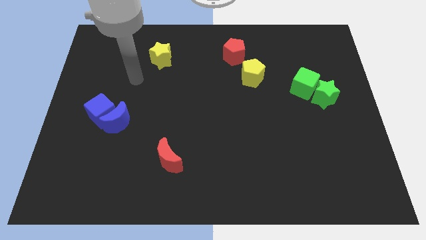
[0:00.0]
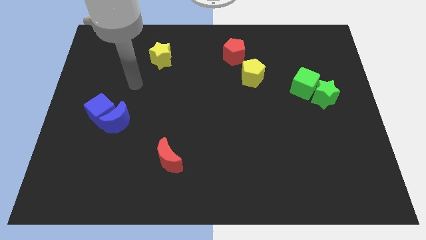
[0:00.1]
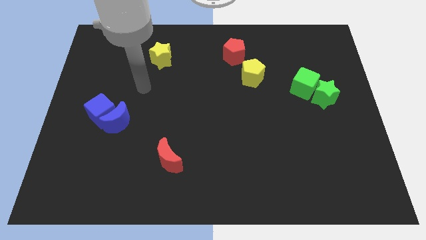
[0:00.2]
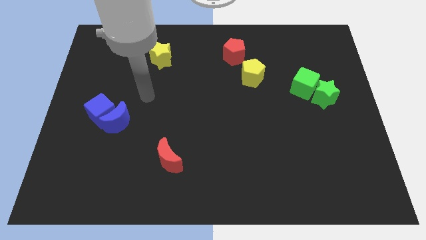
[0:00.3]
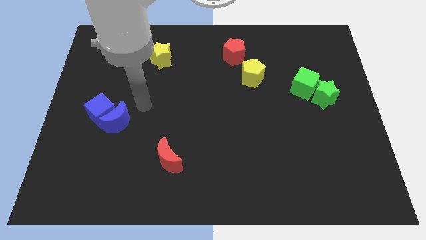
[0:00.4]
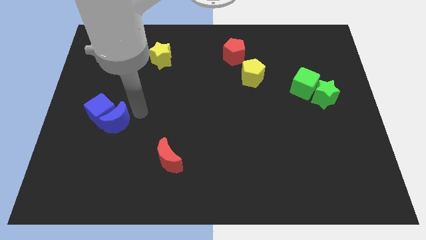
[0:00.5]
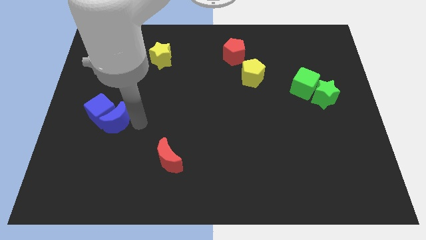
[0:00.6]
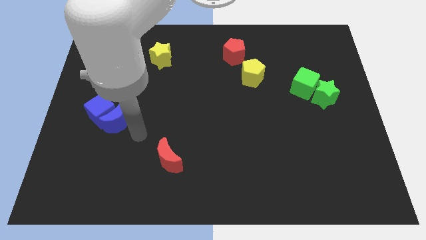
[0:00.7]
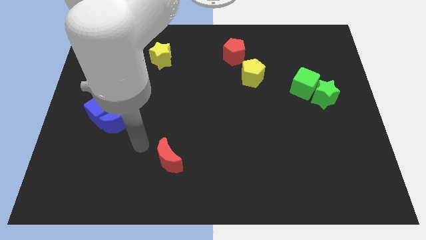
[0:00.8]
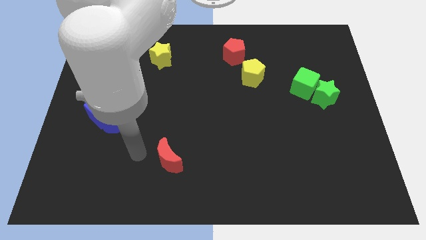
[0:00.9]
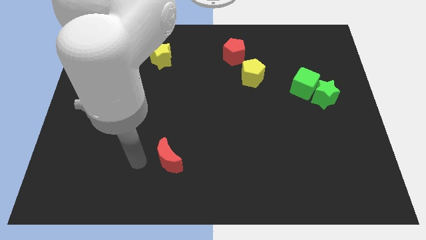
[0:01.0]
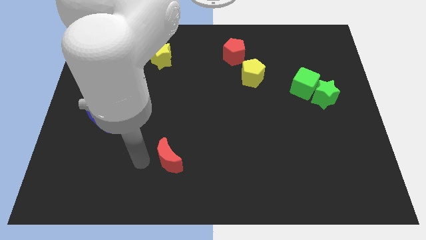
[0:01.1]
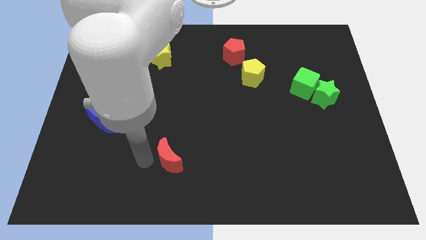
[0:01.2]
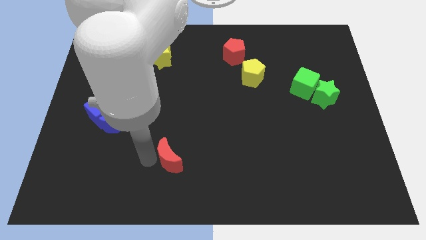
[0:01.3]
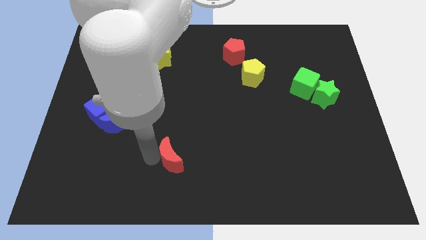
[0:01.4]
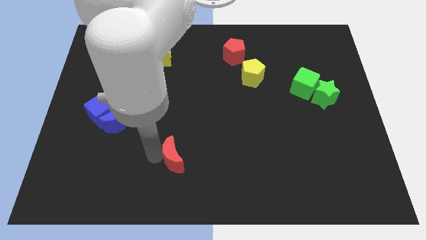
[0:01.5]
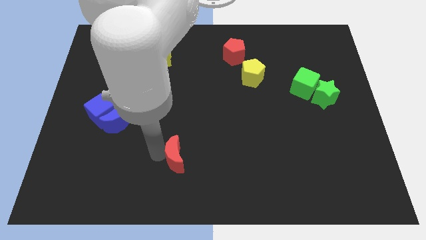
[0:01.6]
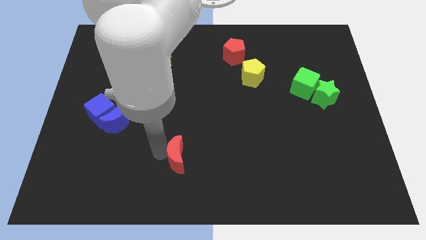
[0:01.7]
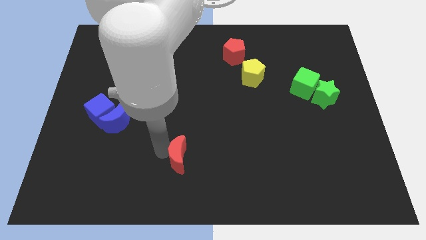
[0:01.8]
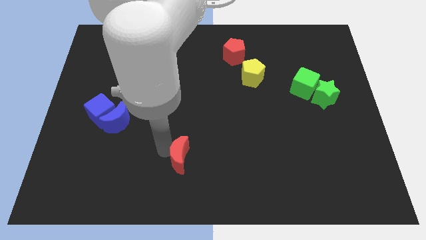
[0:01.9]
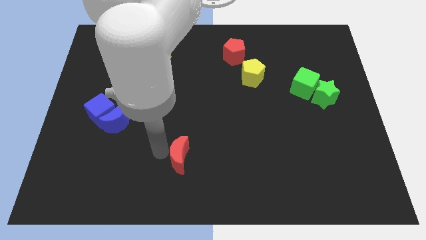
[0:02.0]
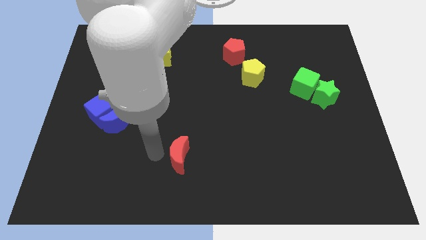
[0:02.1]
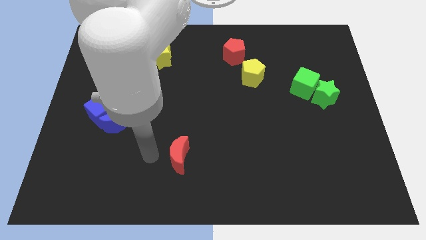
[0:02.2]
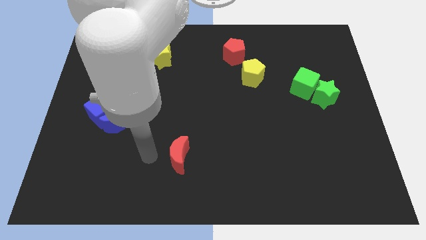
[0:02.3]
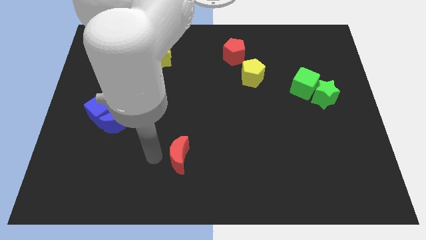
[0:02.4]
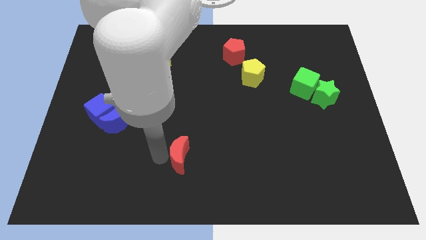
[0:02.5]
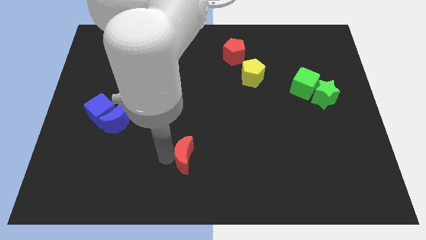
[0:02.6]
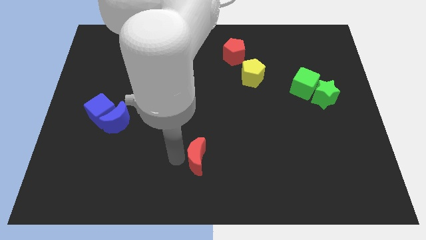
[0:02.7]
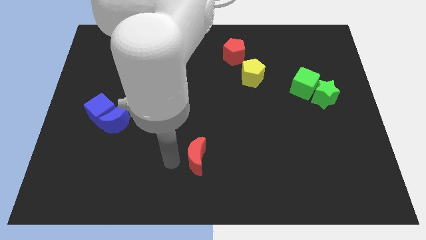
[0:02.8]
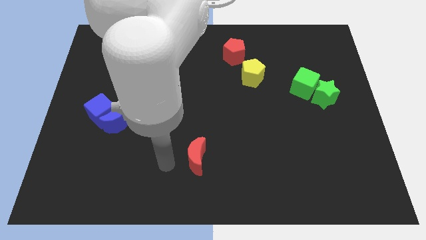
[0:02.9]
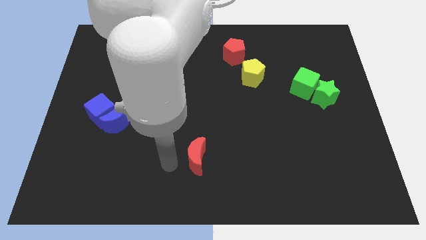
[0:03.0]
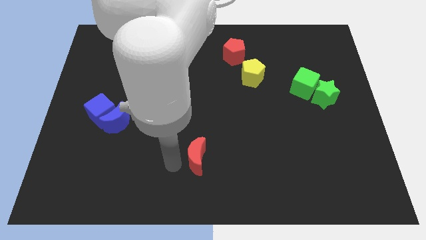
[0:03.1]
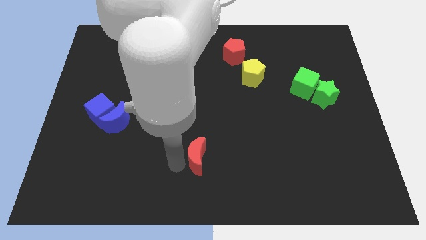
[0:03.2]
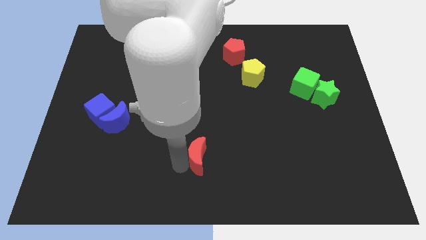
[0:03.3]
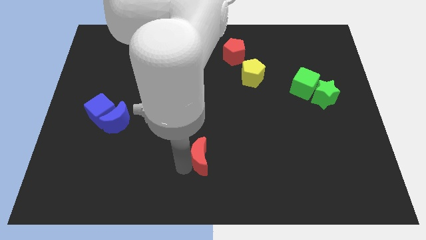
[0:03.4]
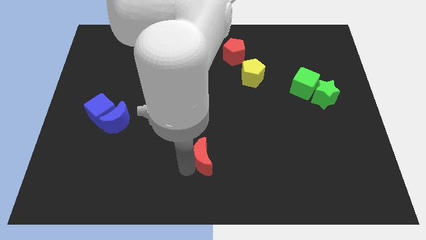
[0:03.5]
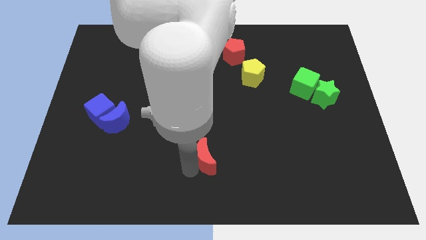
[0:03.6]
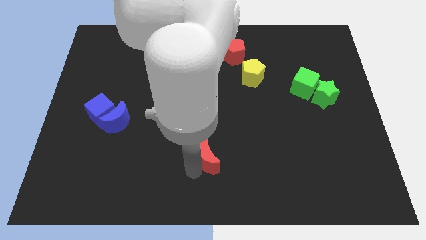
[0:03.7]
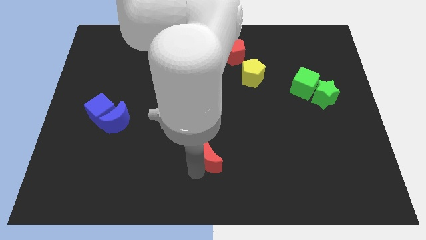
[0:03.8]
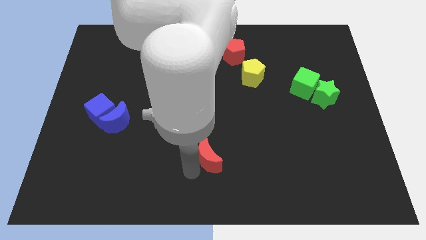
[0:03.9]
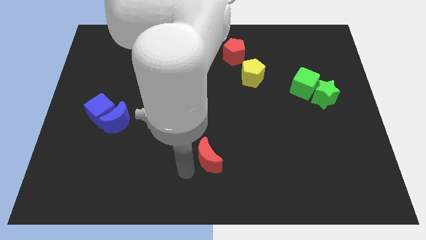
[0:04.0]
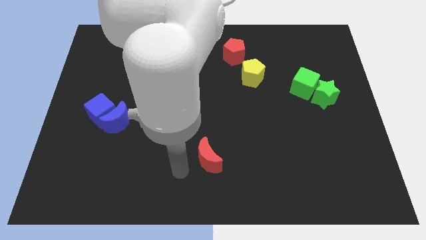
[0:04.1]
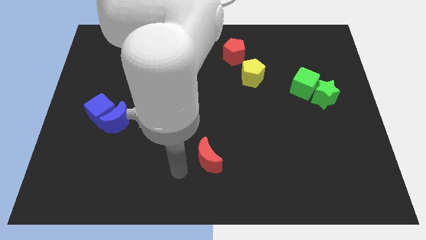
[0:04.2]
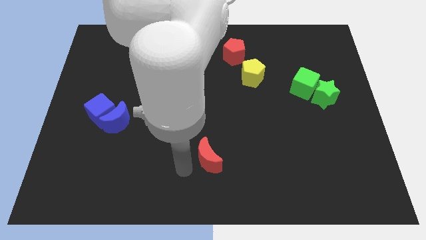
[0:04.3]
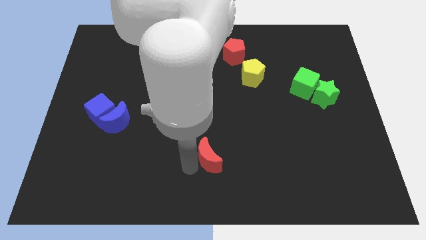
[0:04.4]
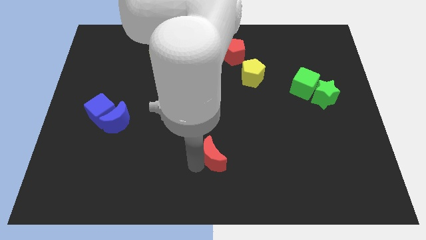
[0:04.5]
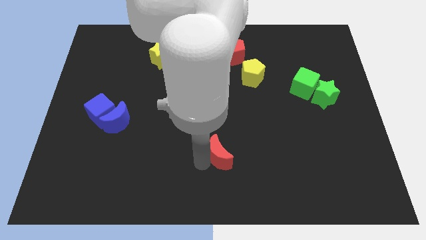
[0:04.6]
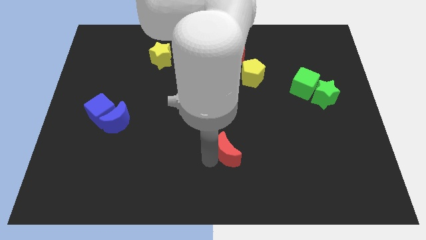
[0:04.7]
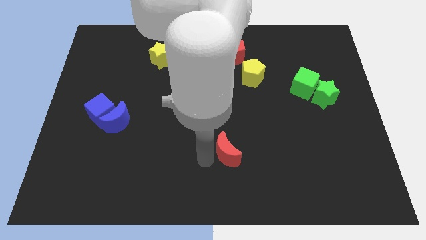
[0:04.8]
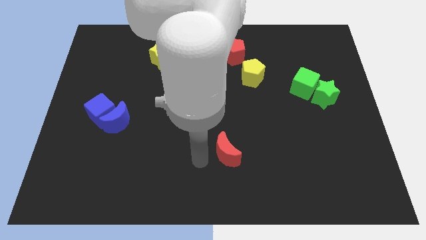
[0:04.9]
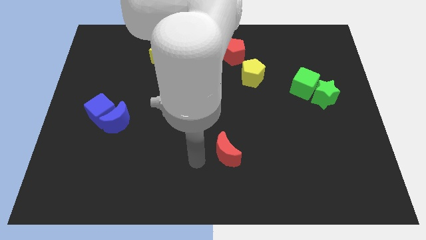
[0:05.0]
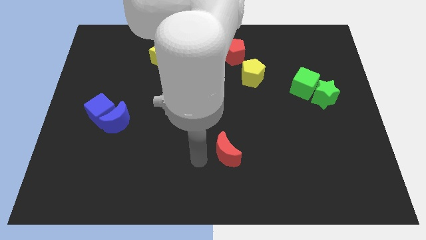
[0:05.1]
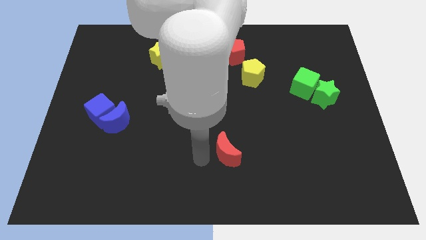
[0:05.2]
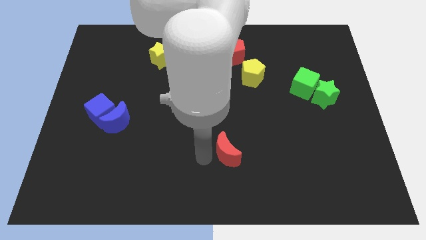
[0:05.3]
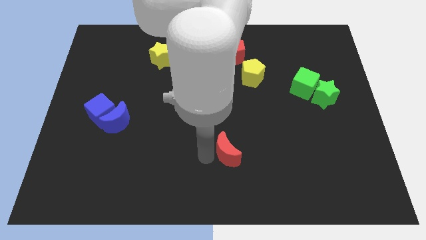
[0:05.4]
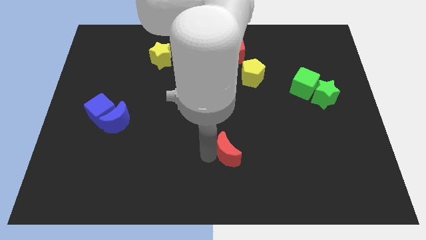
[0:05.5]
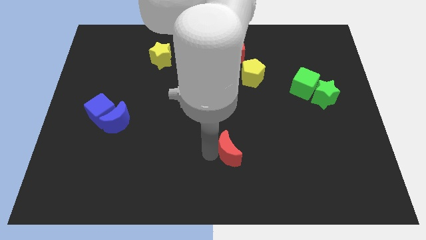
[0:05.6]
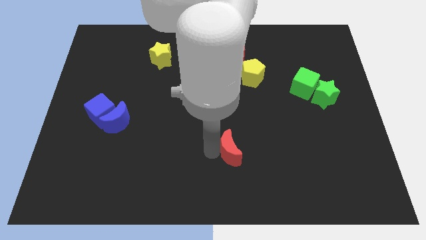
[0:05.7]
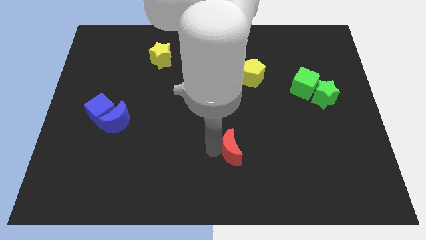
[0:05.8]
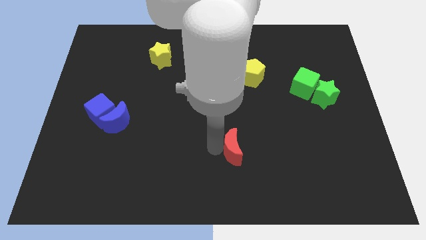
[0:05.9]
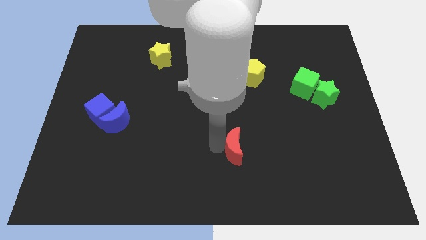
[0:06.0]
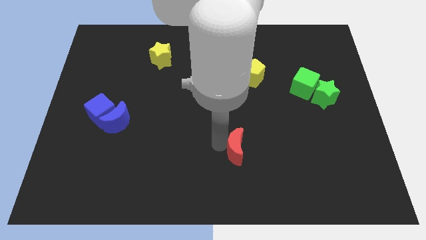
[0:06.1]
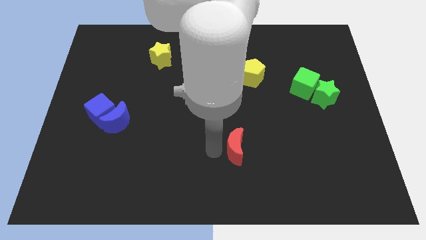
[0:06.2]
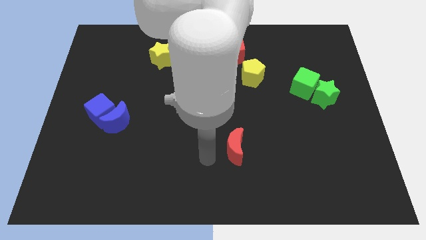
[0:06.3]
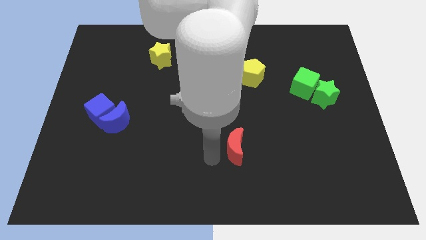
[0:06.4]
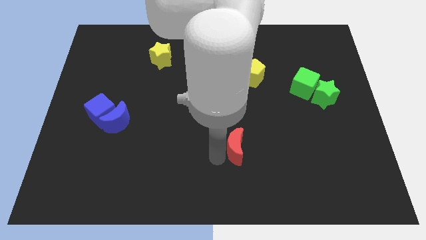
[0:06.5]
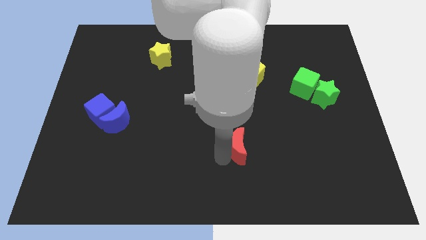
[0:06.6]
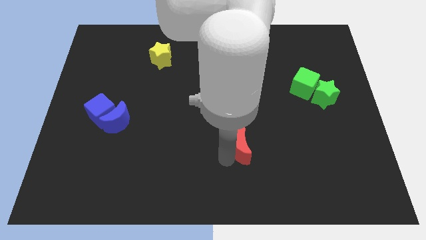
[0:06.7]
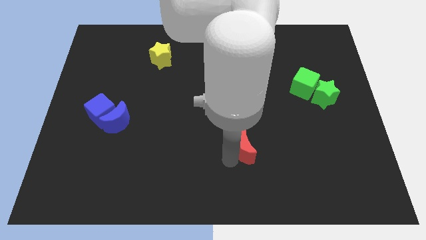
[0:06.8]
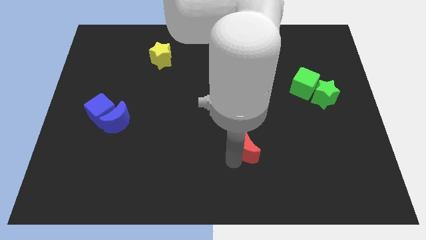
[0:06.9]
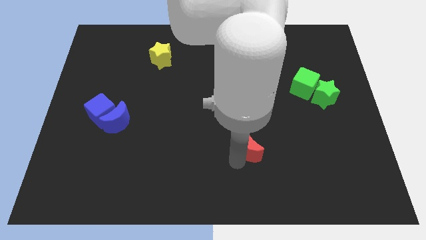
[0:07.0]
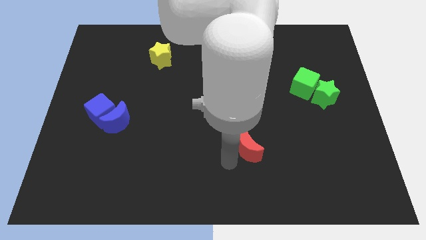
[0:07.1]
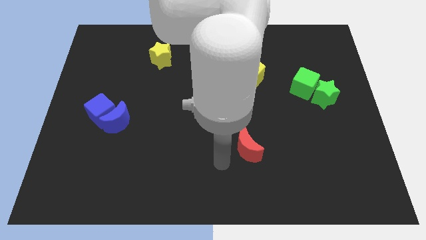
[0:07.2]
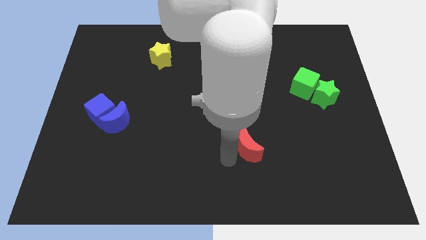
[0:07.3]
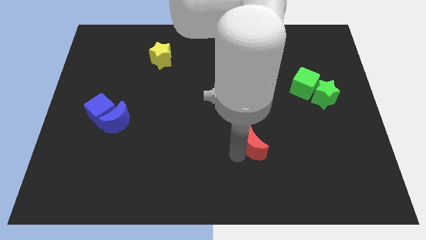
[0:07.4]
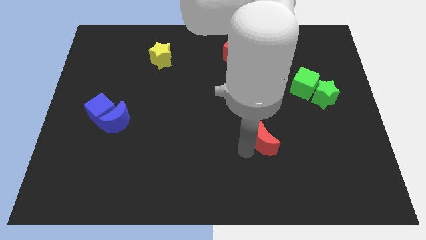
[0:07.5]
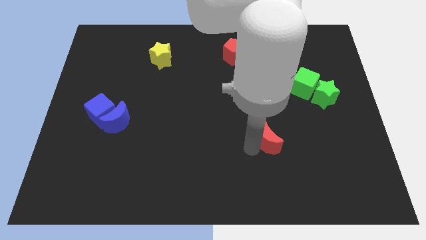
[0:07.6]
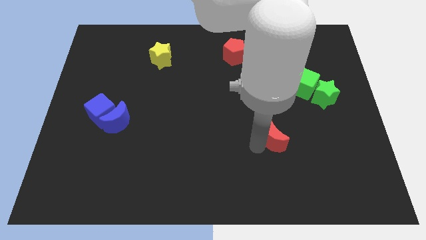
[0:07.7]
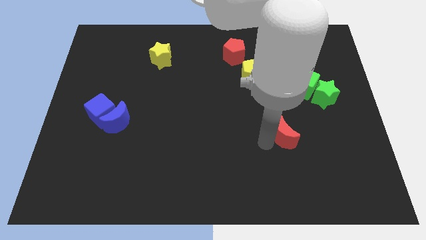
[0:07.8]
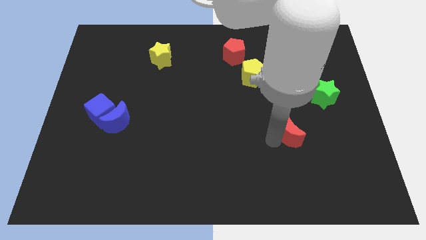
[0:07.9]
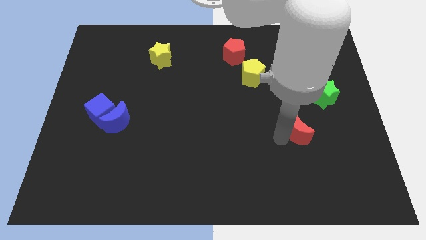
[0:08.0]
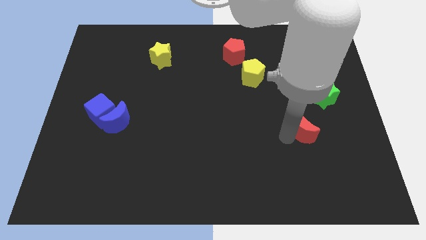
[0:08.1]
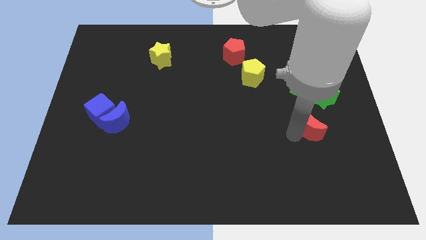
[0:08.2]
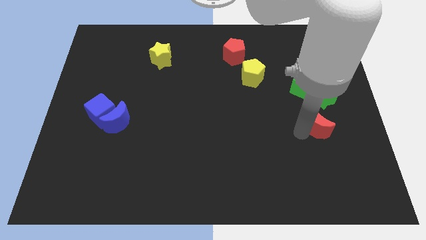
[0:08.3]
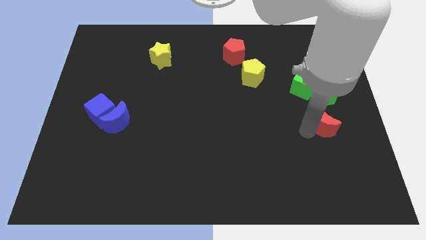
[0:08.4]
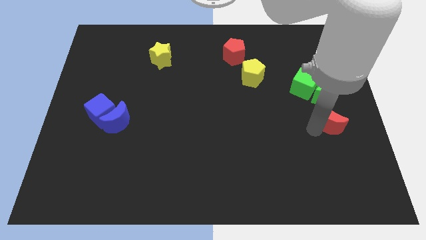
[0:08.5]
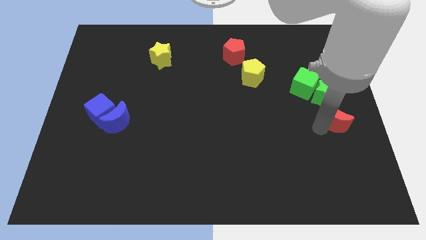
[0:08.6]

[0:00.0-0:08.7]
slide the red moon to the center right
